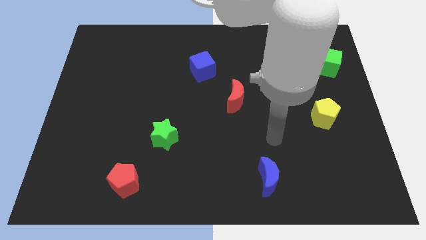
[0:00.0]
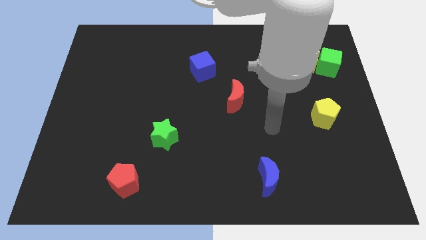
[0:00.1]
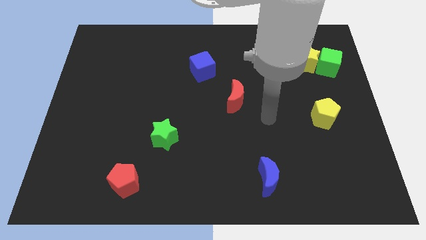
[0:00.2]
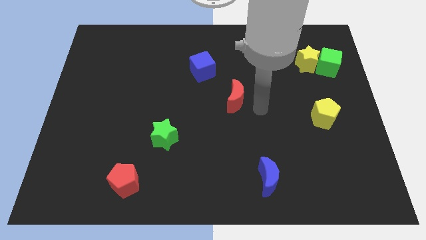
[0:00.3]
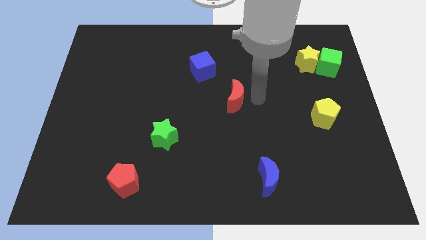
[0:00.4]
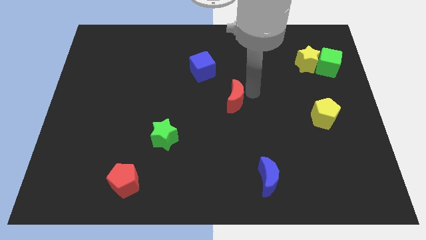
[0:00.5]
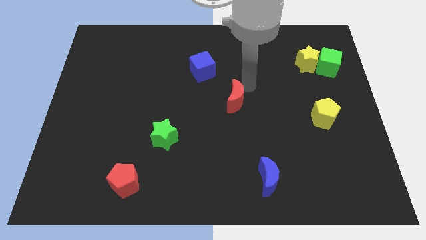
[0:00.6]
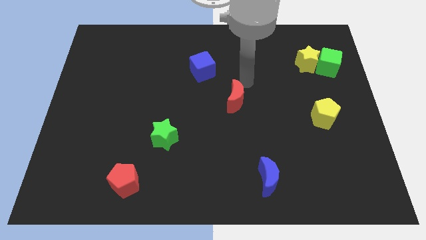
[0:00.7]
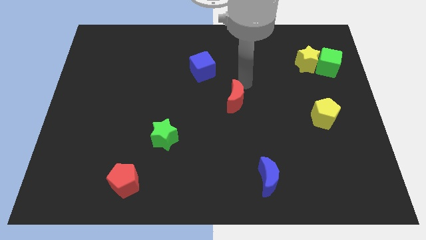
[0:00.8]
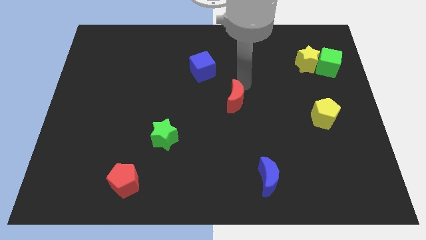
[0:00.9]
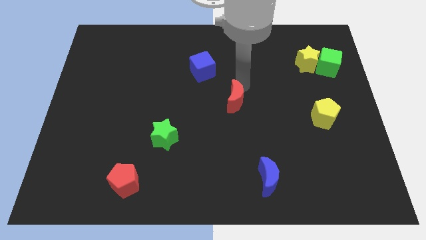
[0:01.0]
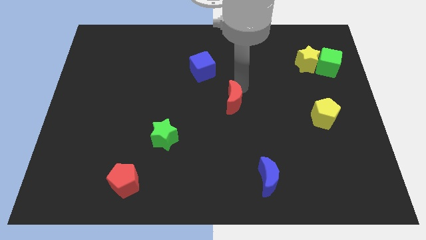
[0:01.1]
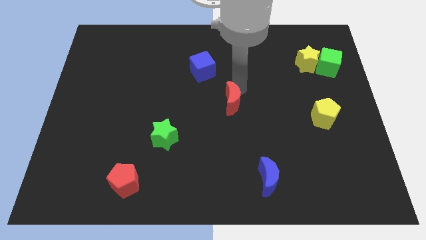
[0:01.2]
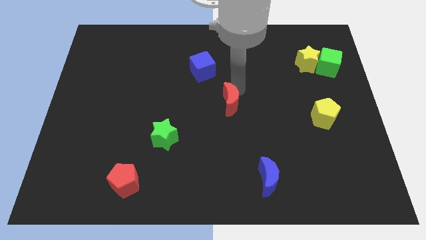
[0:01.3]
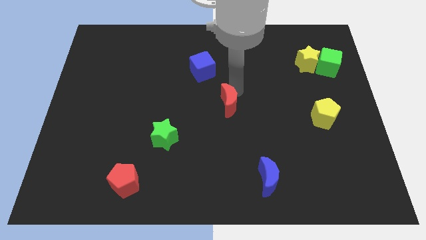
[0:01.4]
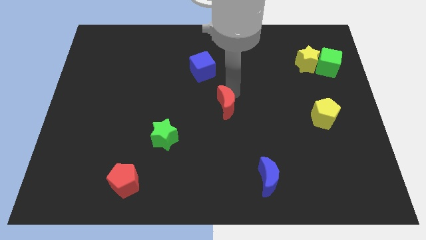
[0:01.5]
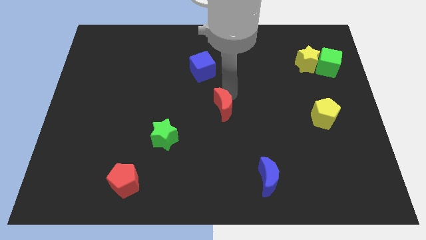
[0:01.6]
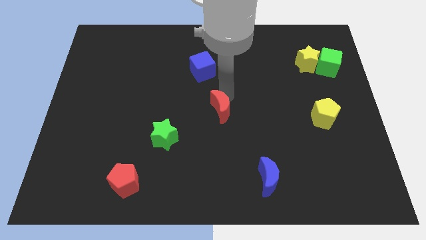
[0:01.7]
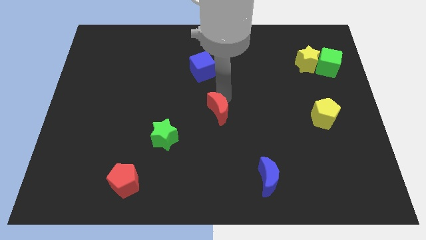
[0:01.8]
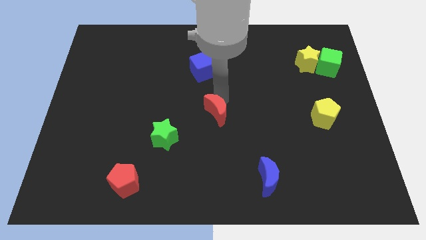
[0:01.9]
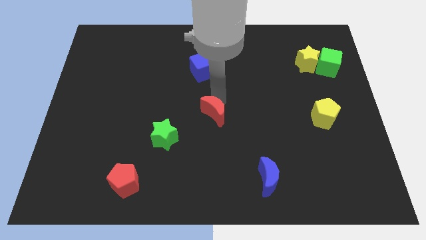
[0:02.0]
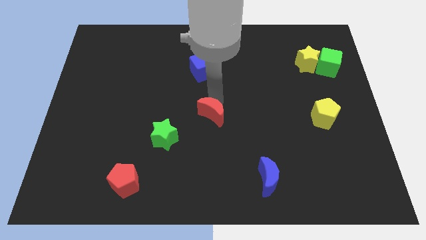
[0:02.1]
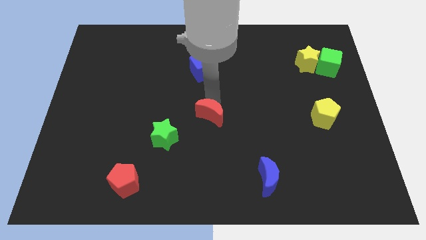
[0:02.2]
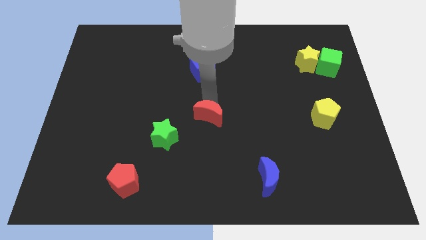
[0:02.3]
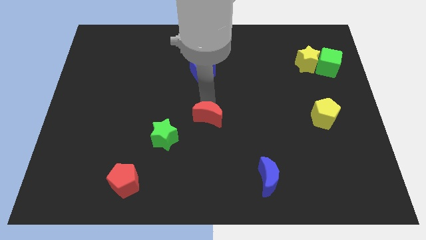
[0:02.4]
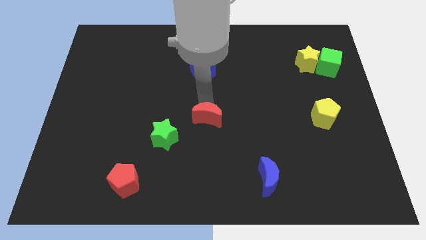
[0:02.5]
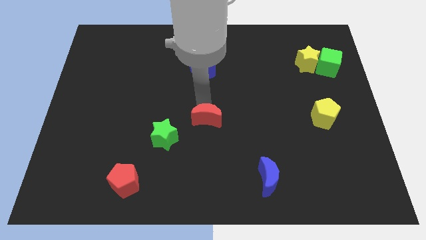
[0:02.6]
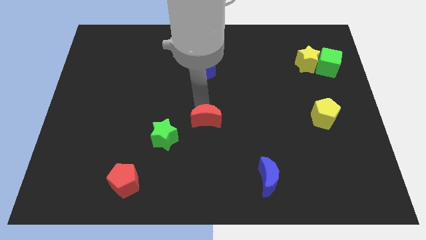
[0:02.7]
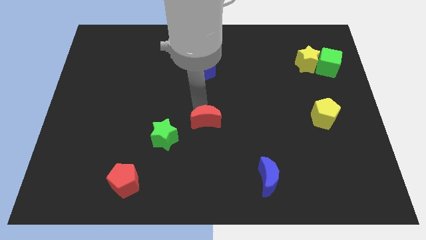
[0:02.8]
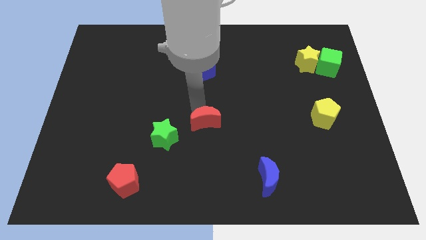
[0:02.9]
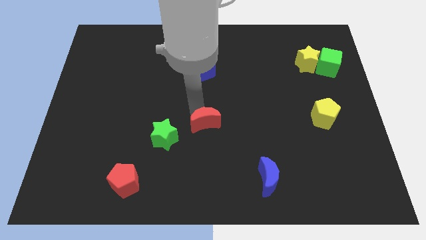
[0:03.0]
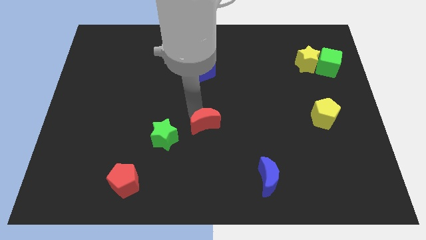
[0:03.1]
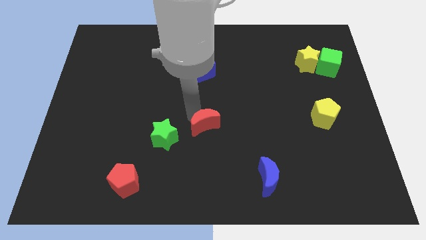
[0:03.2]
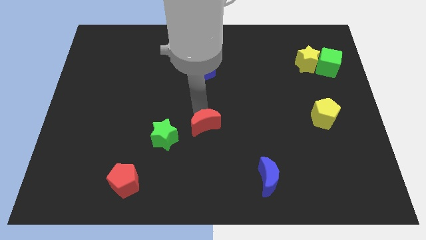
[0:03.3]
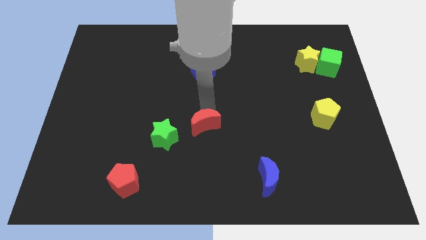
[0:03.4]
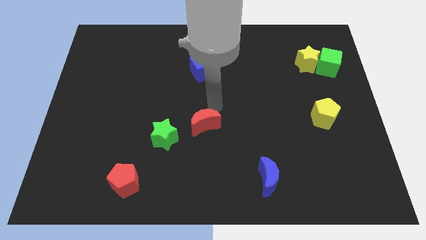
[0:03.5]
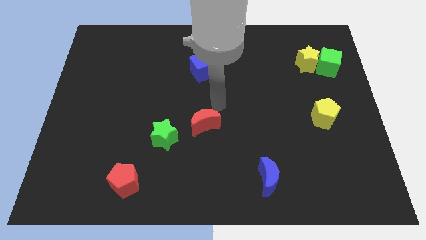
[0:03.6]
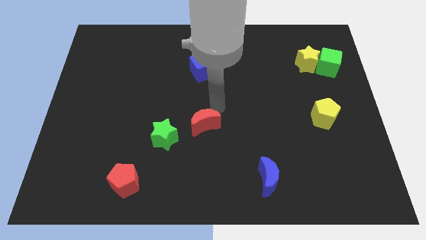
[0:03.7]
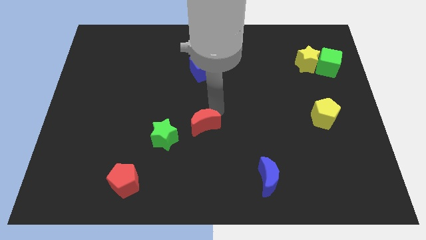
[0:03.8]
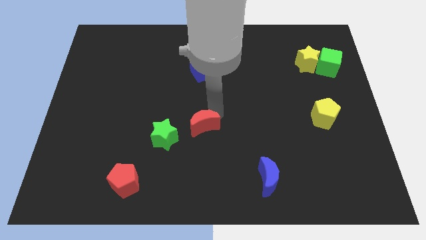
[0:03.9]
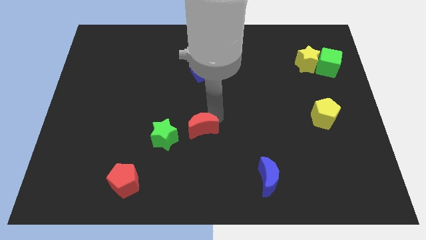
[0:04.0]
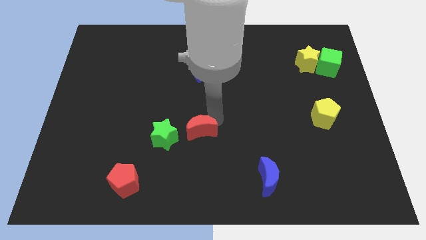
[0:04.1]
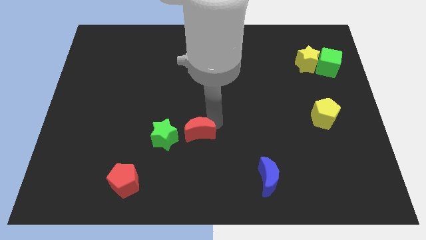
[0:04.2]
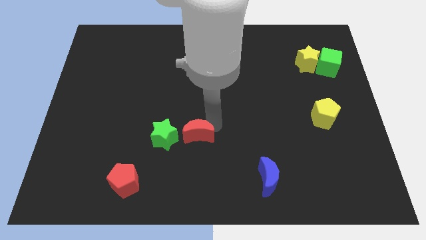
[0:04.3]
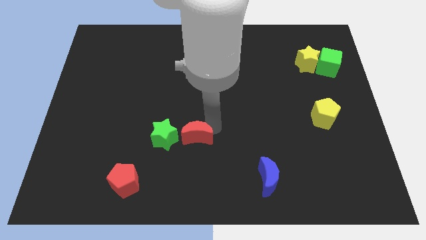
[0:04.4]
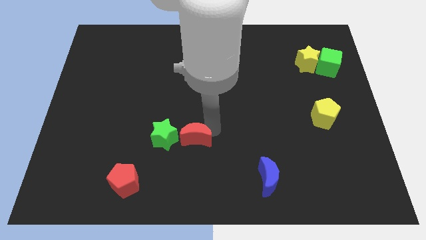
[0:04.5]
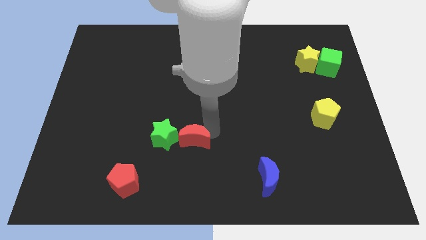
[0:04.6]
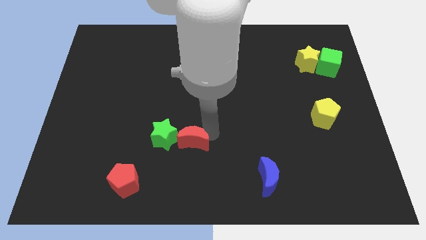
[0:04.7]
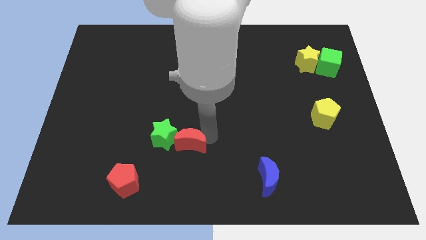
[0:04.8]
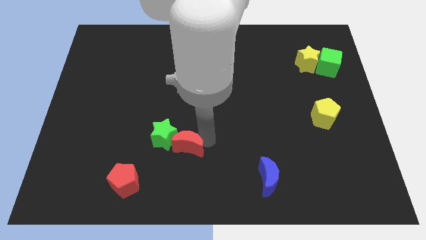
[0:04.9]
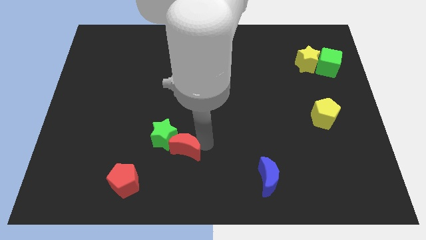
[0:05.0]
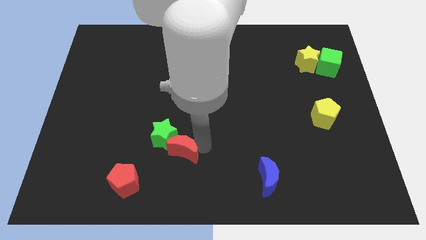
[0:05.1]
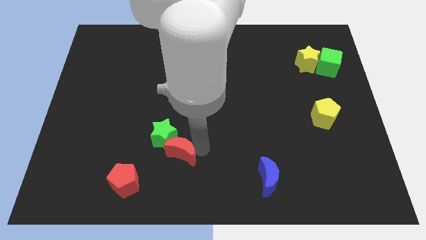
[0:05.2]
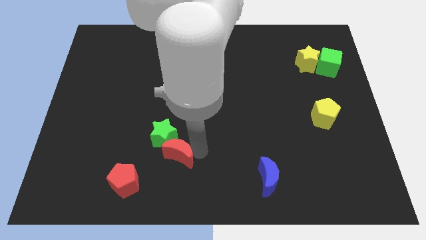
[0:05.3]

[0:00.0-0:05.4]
slide the red moon diagonally up and to the right of the red pentagon

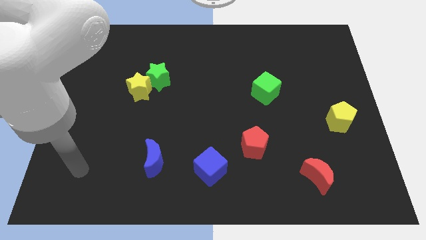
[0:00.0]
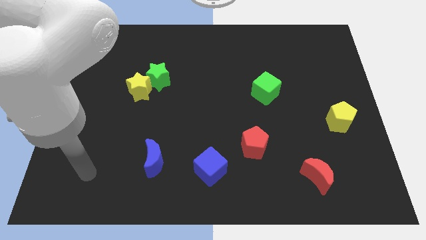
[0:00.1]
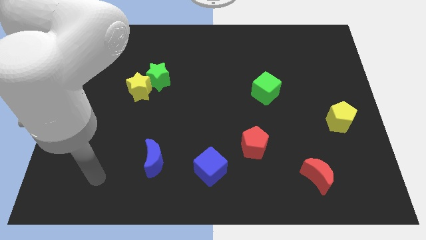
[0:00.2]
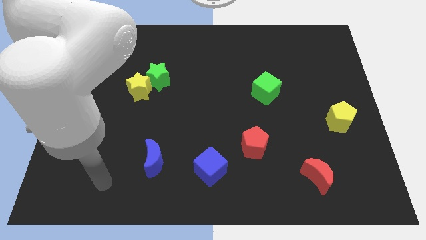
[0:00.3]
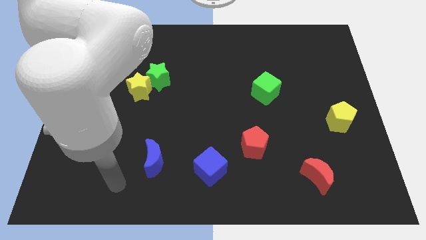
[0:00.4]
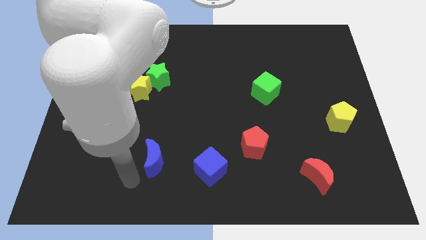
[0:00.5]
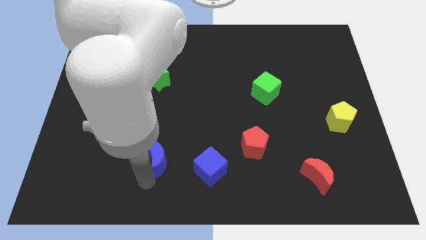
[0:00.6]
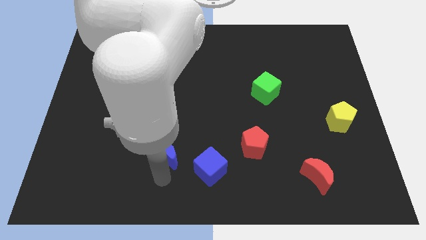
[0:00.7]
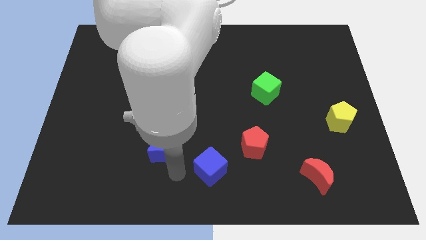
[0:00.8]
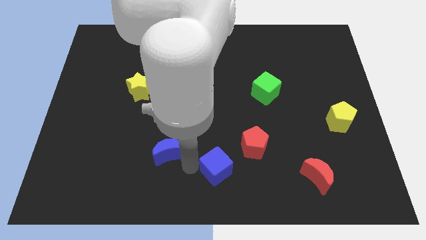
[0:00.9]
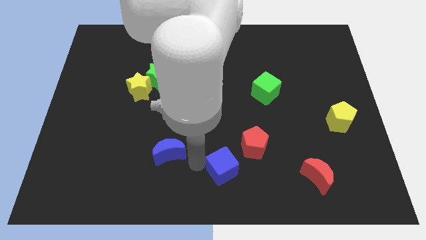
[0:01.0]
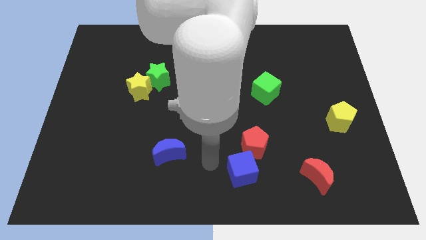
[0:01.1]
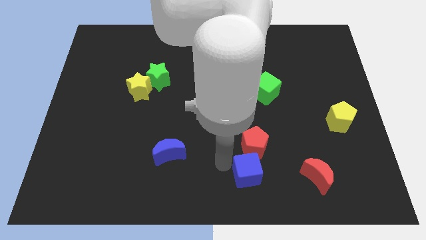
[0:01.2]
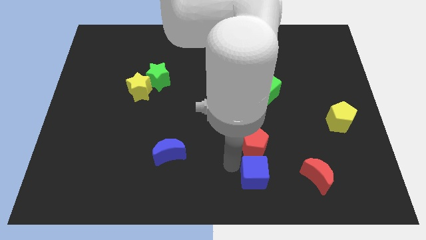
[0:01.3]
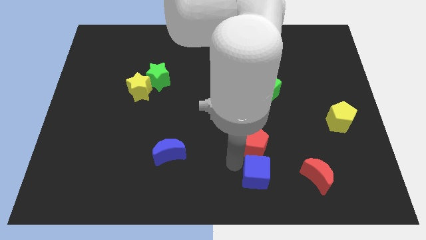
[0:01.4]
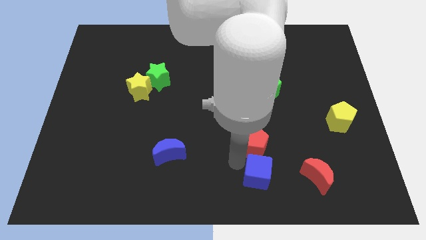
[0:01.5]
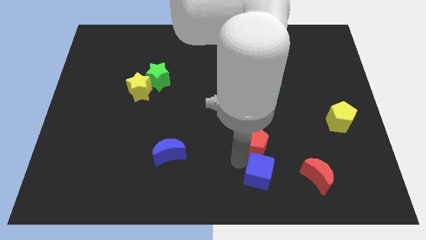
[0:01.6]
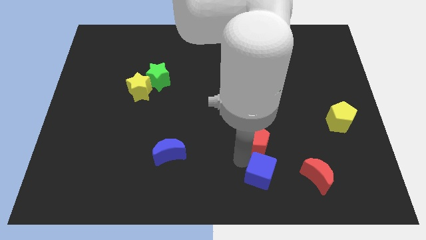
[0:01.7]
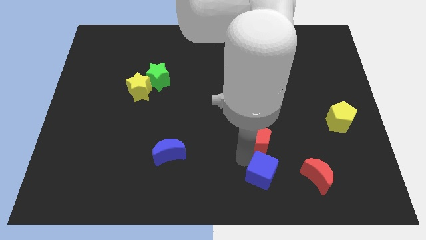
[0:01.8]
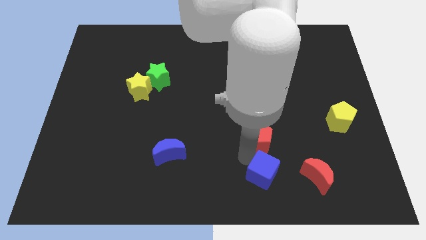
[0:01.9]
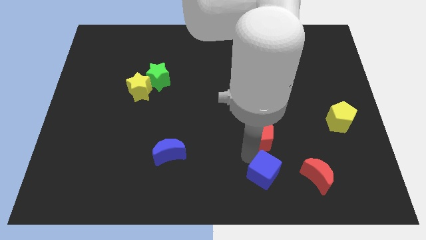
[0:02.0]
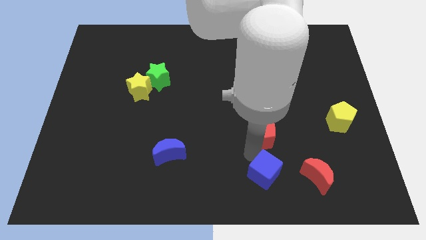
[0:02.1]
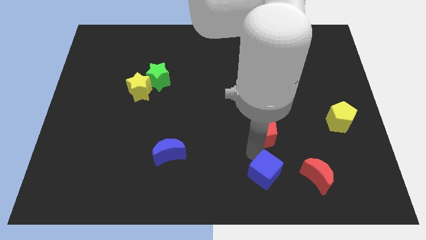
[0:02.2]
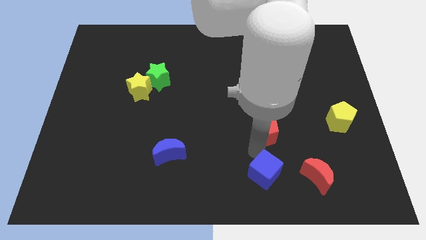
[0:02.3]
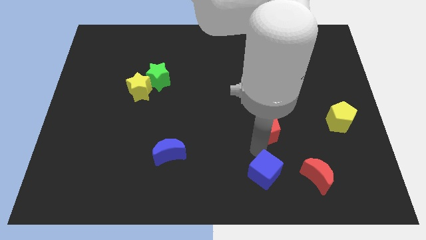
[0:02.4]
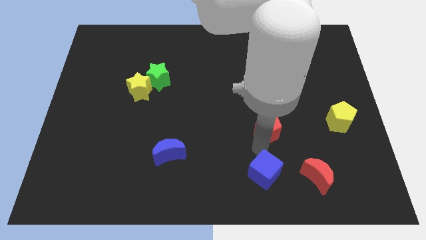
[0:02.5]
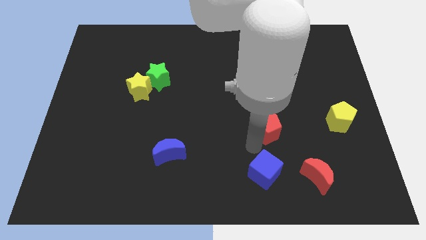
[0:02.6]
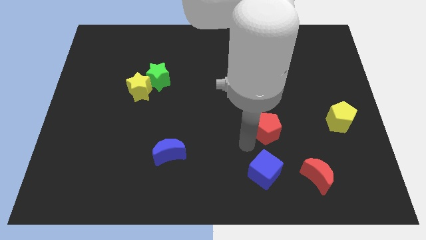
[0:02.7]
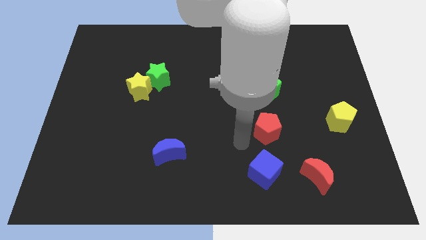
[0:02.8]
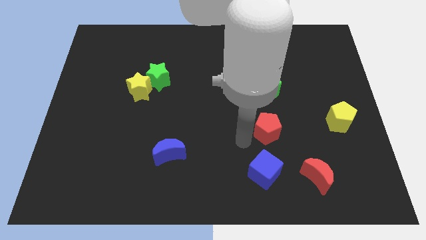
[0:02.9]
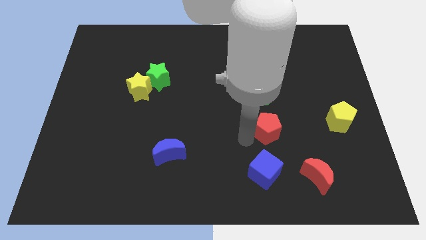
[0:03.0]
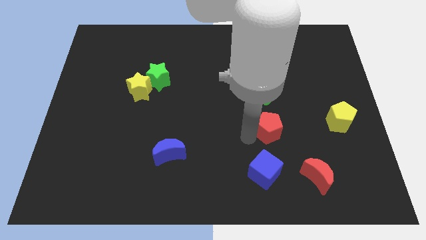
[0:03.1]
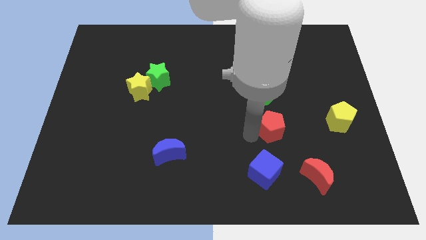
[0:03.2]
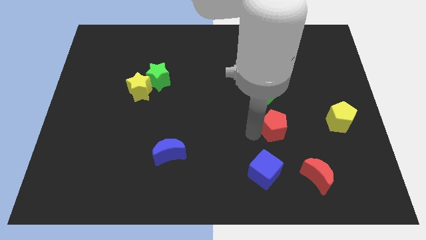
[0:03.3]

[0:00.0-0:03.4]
put the red pentagon just left of the yellow pentagon

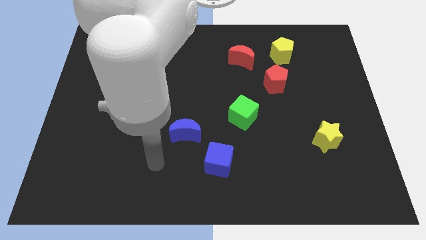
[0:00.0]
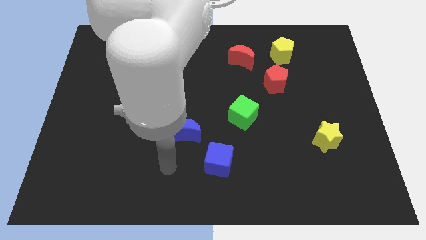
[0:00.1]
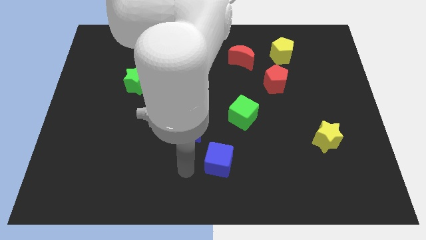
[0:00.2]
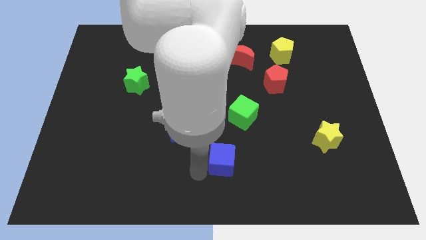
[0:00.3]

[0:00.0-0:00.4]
move the green cube to the top side of the blue cube
